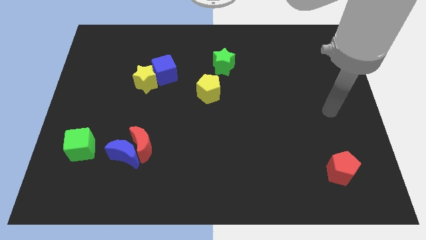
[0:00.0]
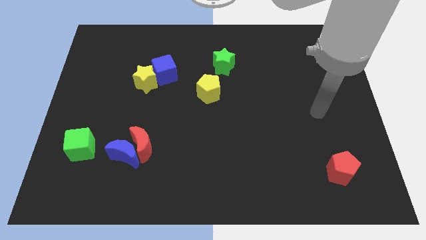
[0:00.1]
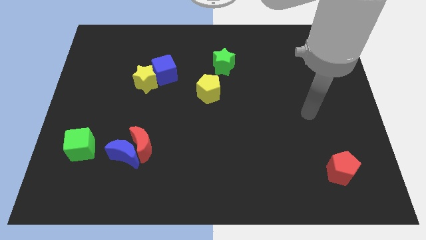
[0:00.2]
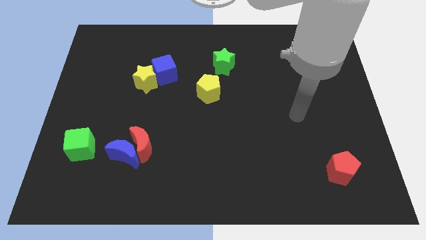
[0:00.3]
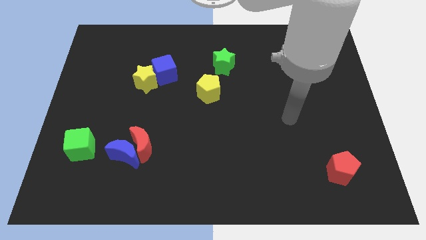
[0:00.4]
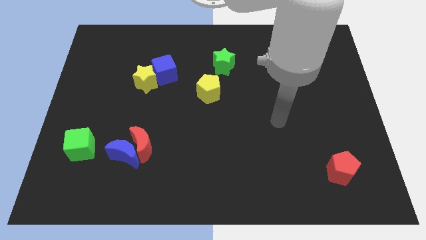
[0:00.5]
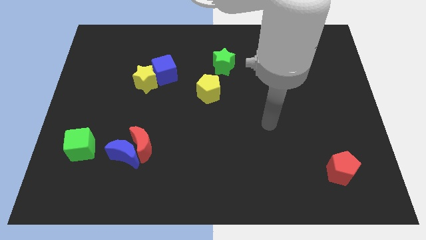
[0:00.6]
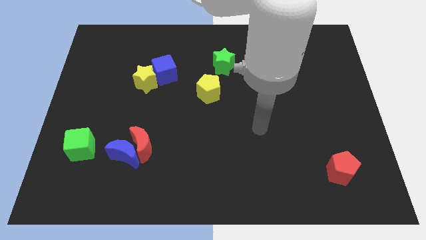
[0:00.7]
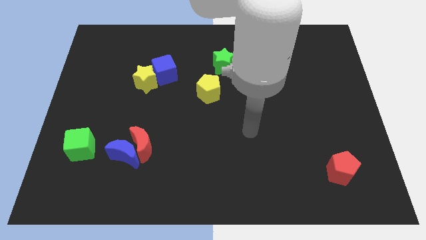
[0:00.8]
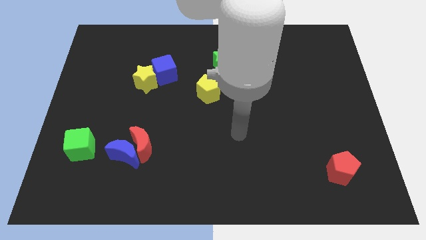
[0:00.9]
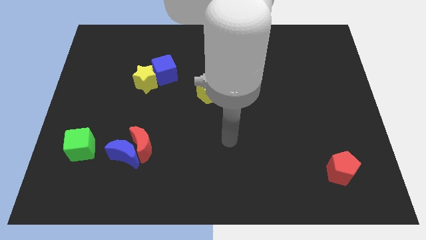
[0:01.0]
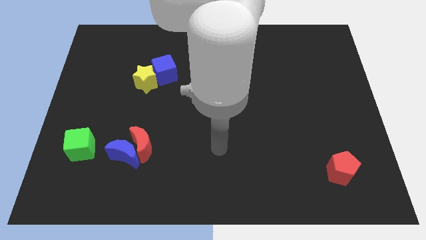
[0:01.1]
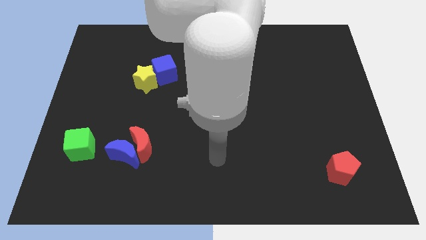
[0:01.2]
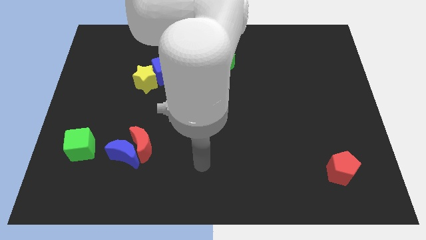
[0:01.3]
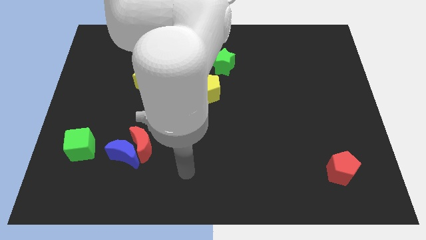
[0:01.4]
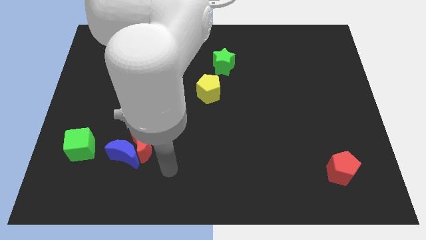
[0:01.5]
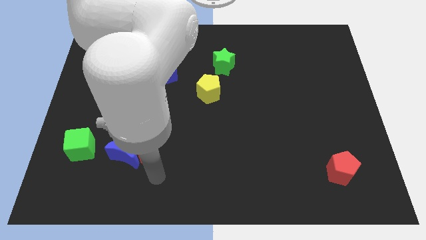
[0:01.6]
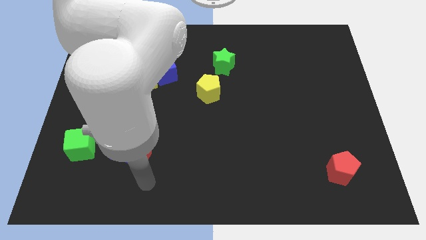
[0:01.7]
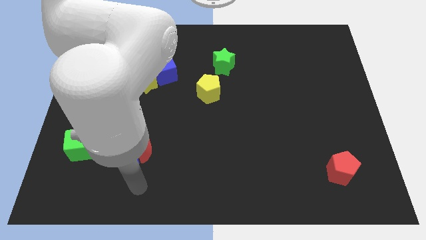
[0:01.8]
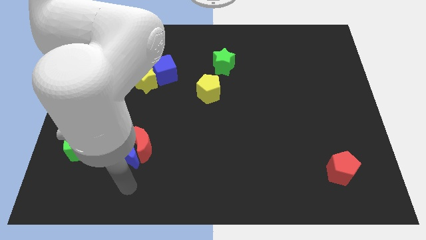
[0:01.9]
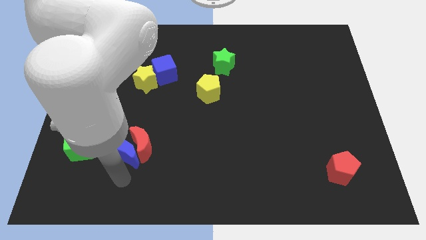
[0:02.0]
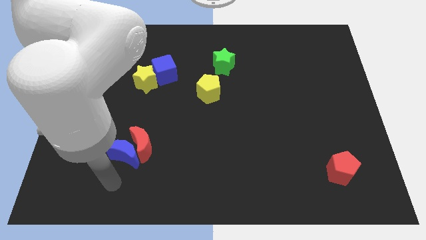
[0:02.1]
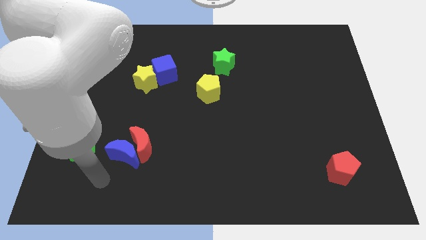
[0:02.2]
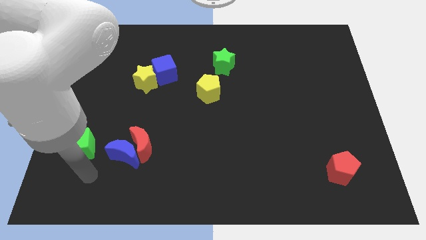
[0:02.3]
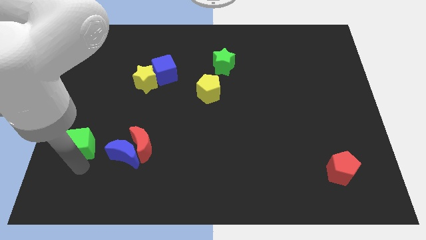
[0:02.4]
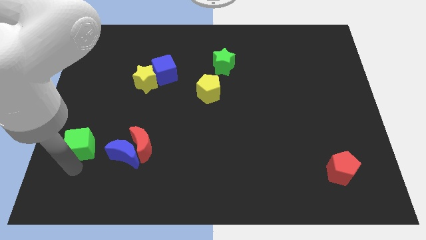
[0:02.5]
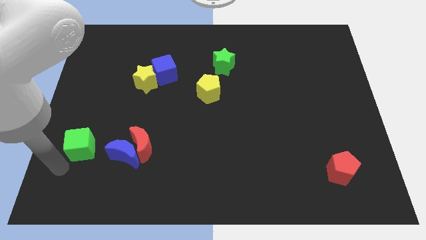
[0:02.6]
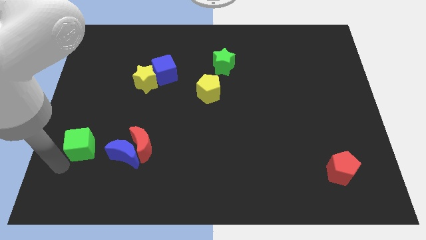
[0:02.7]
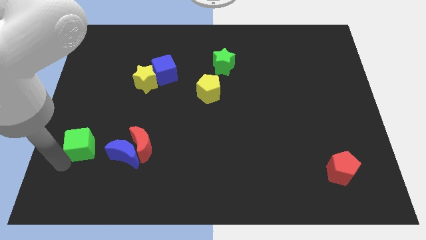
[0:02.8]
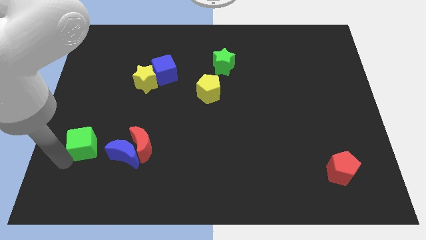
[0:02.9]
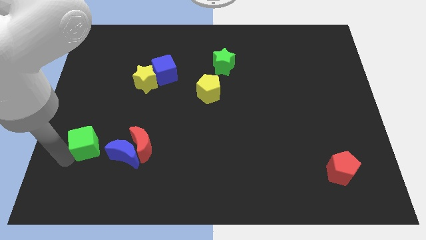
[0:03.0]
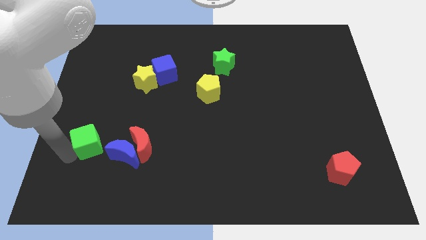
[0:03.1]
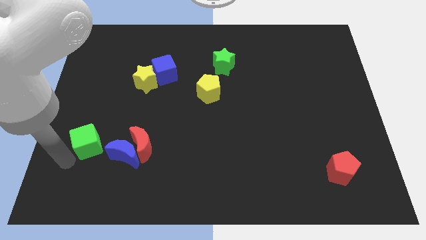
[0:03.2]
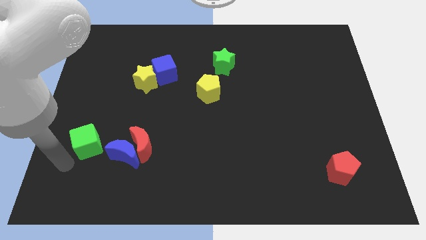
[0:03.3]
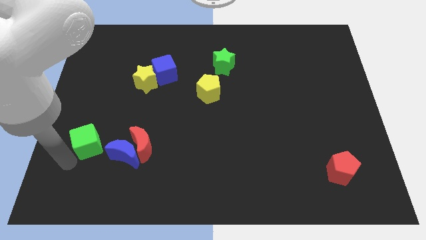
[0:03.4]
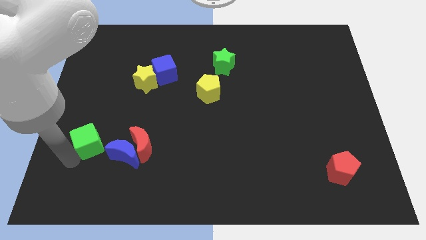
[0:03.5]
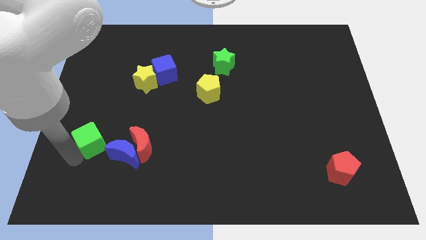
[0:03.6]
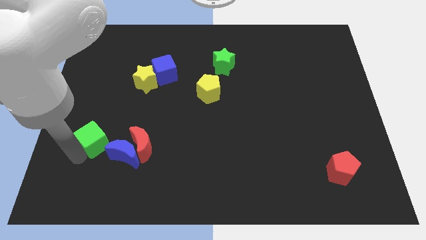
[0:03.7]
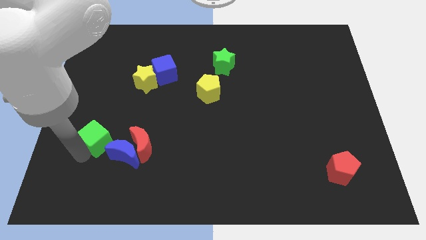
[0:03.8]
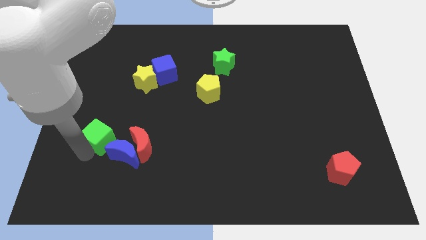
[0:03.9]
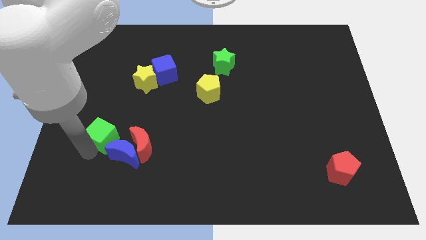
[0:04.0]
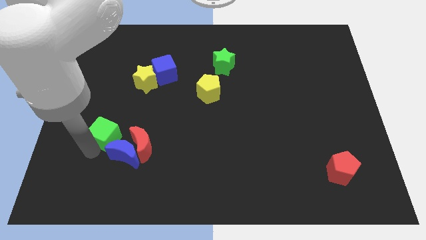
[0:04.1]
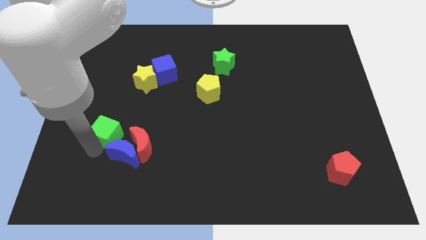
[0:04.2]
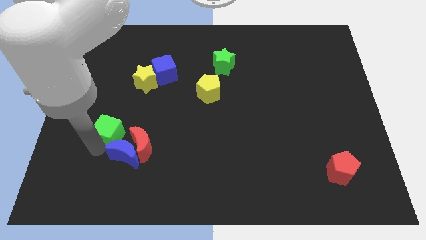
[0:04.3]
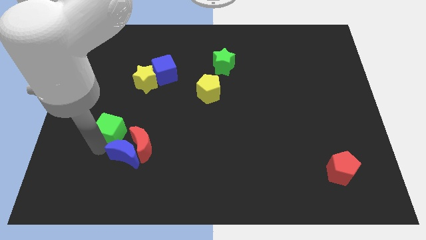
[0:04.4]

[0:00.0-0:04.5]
move the green cube upwards and then to the right a little

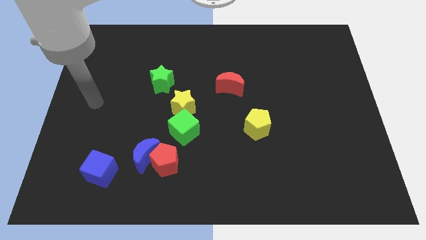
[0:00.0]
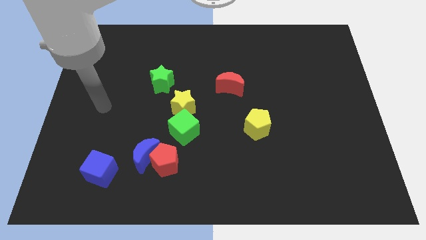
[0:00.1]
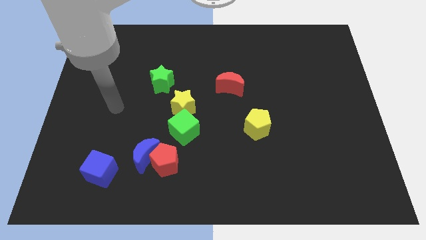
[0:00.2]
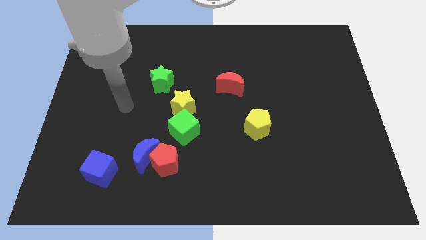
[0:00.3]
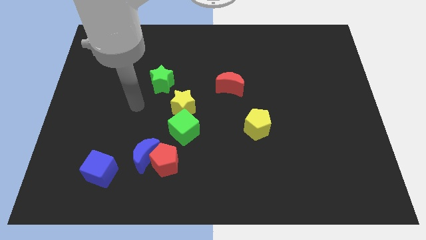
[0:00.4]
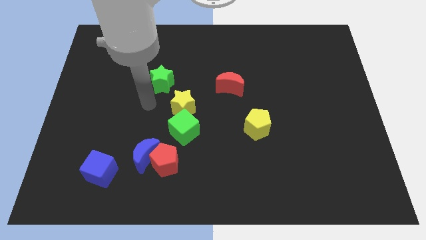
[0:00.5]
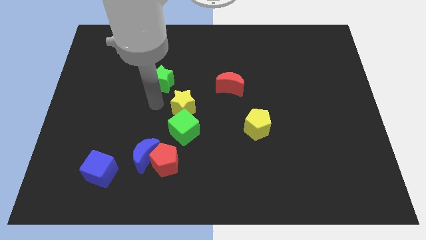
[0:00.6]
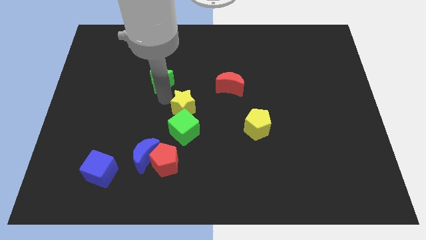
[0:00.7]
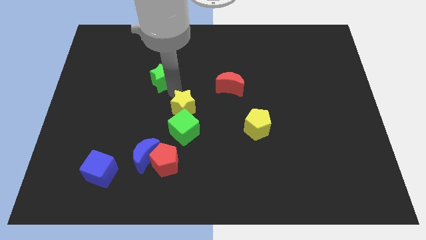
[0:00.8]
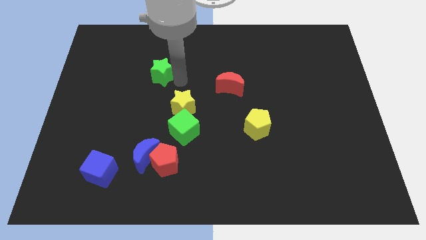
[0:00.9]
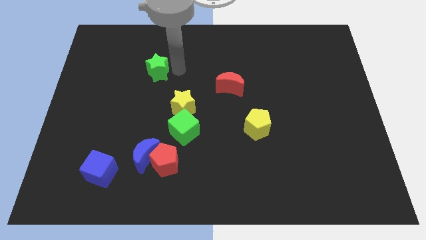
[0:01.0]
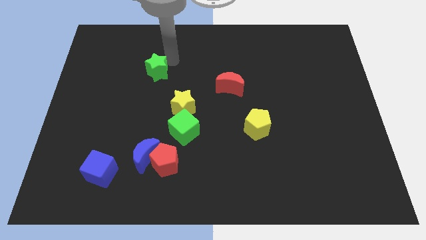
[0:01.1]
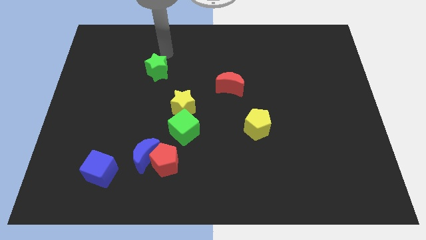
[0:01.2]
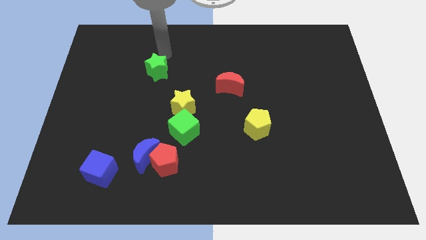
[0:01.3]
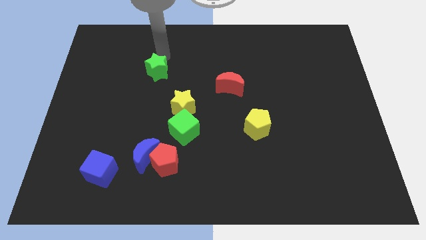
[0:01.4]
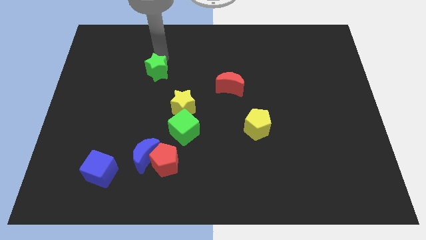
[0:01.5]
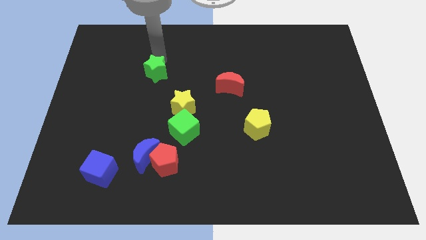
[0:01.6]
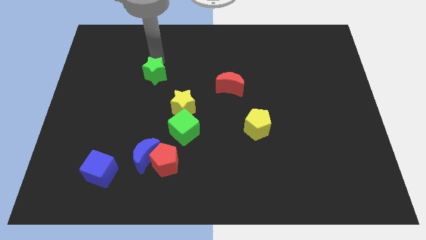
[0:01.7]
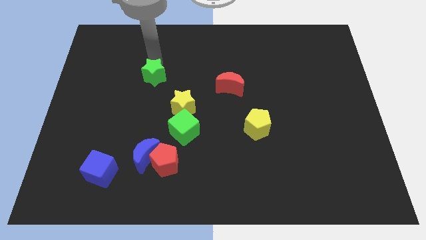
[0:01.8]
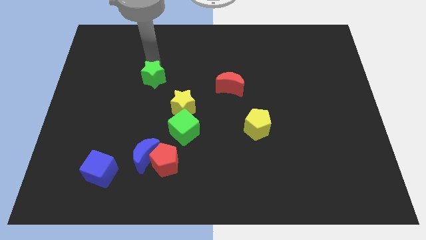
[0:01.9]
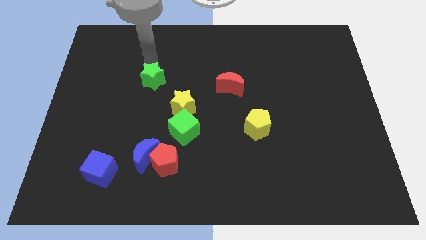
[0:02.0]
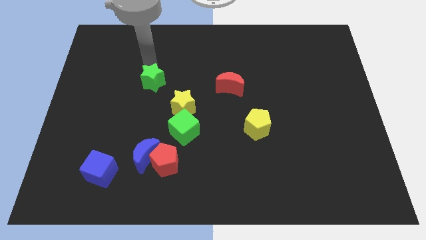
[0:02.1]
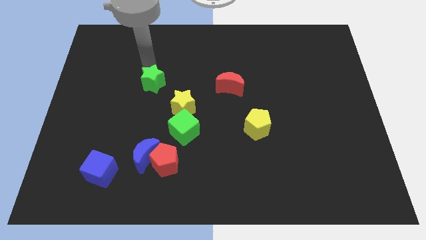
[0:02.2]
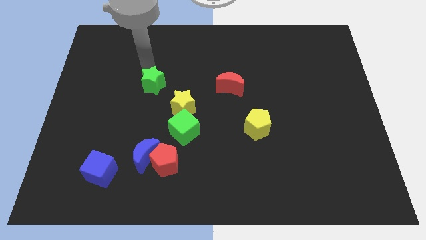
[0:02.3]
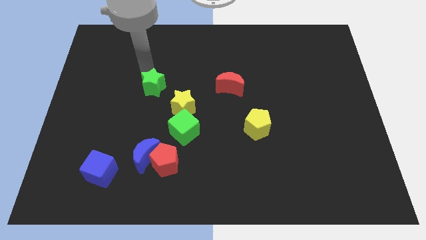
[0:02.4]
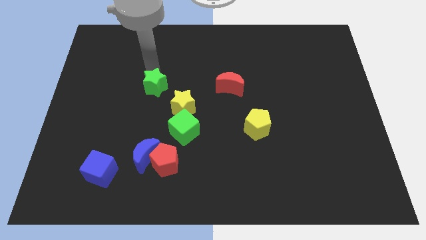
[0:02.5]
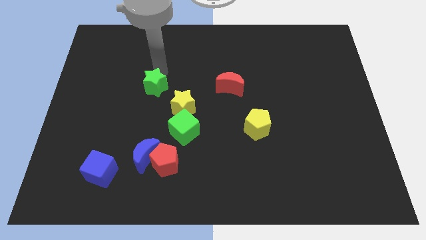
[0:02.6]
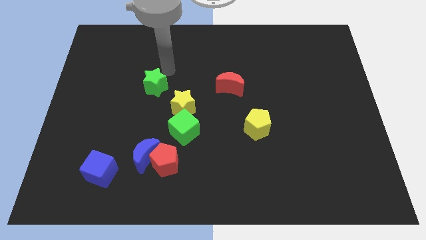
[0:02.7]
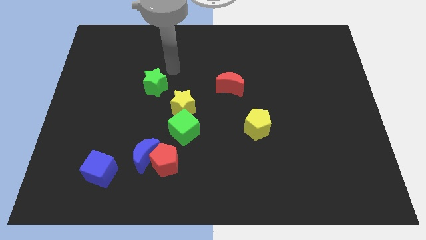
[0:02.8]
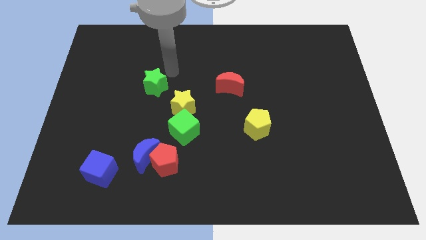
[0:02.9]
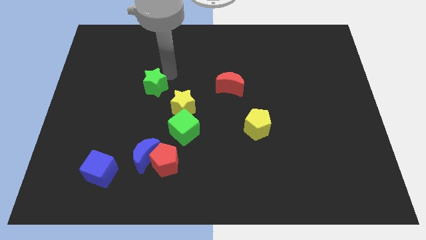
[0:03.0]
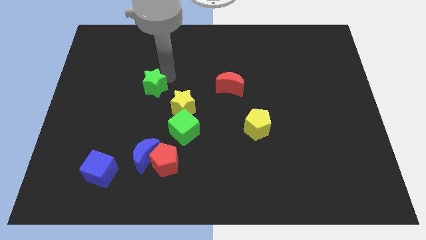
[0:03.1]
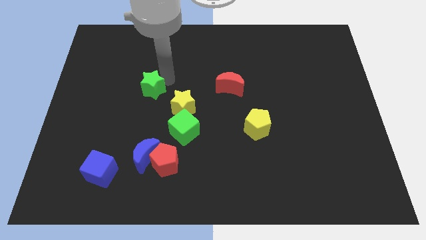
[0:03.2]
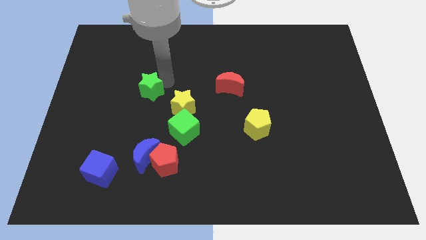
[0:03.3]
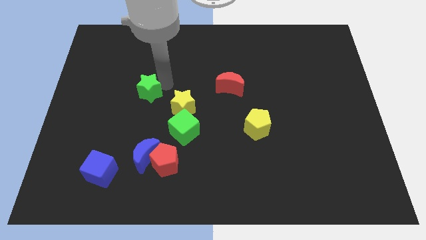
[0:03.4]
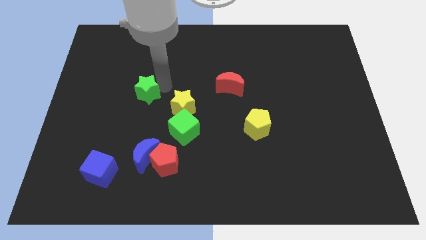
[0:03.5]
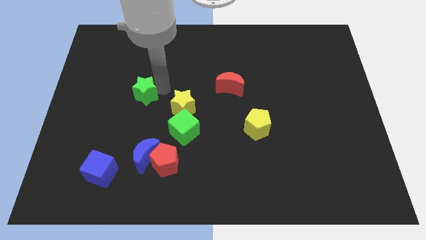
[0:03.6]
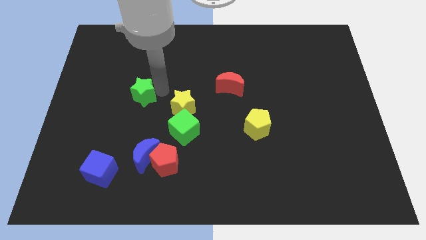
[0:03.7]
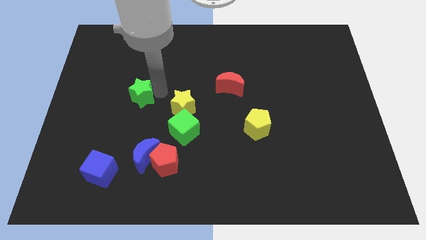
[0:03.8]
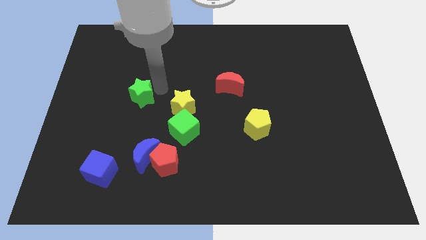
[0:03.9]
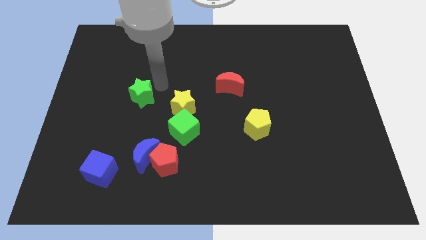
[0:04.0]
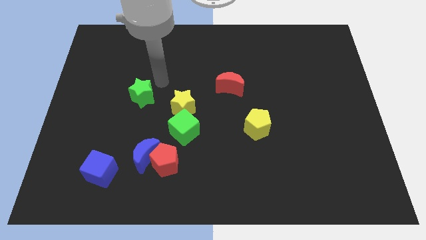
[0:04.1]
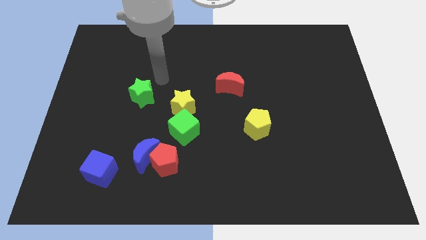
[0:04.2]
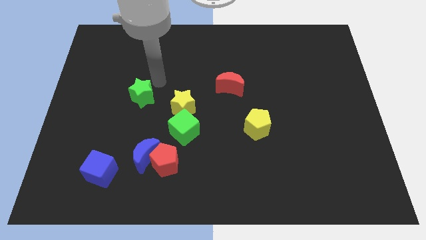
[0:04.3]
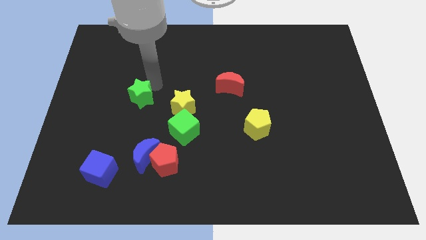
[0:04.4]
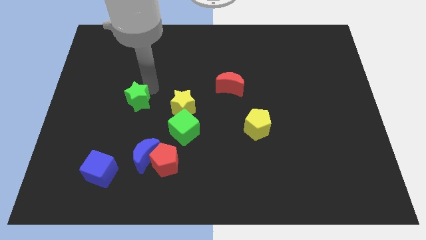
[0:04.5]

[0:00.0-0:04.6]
slide the green star a bit diagonally down and left
